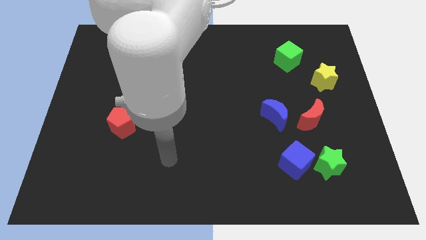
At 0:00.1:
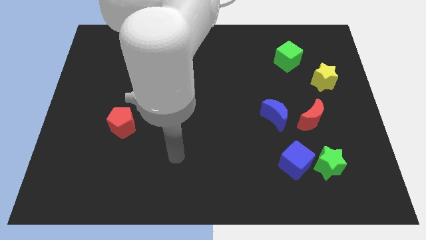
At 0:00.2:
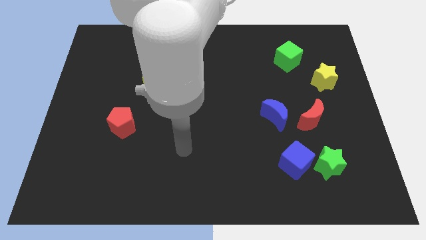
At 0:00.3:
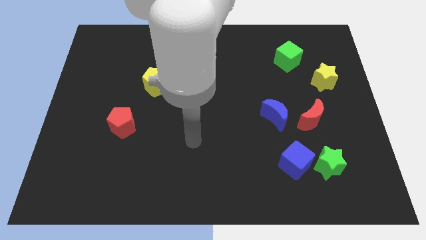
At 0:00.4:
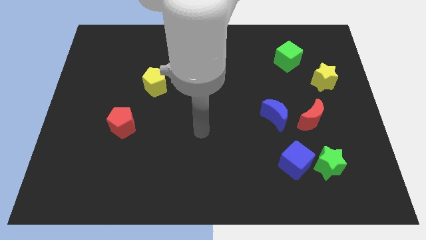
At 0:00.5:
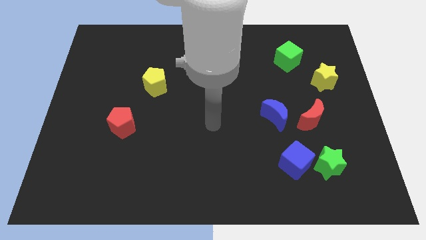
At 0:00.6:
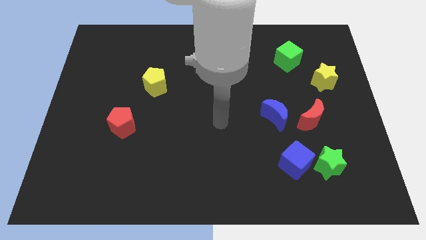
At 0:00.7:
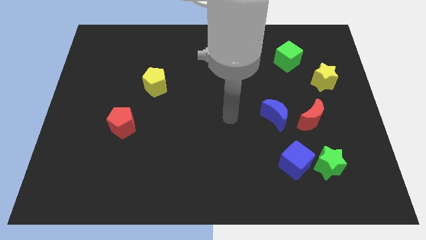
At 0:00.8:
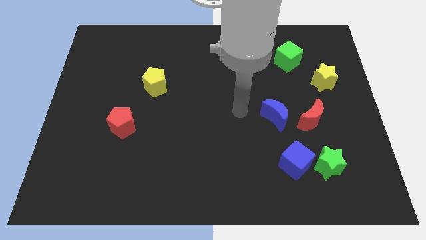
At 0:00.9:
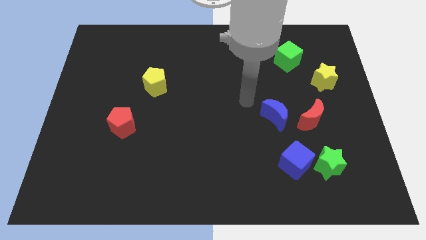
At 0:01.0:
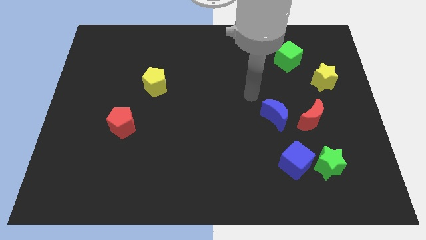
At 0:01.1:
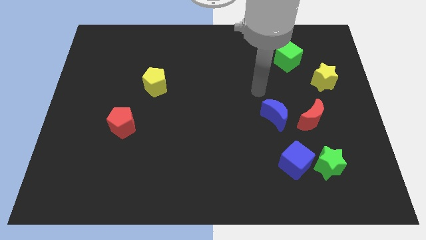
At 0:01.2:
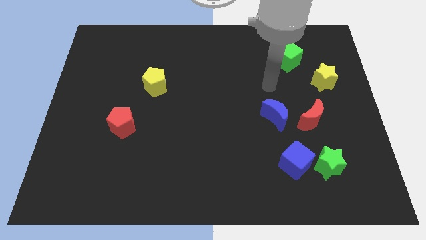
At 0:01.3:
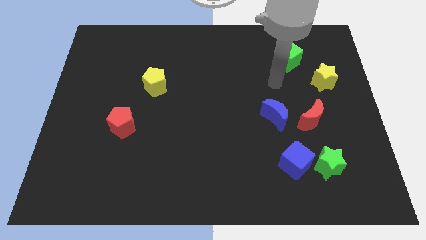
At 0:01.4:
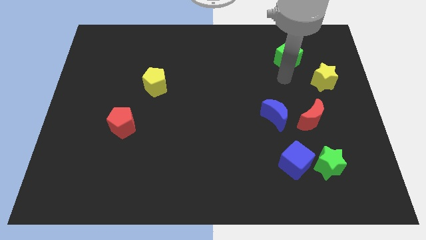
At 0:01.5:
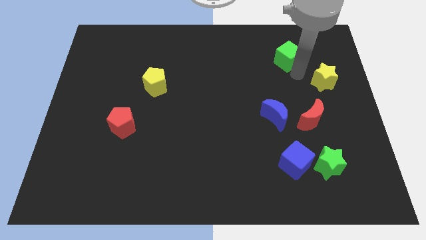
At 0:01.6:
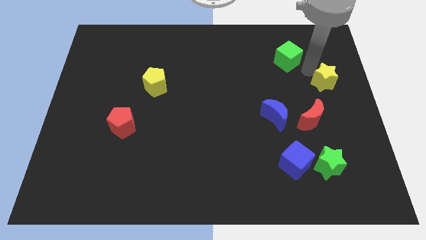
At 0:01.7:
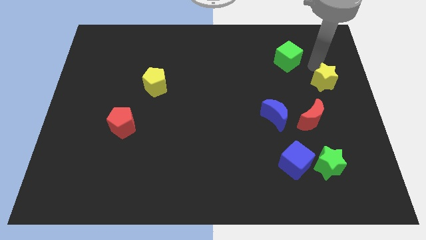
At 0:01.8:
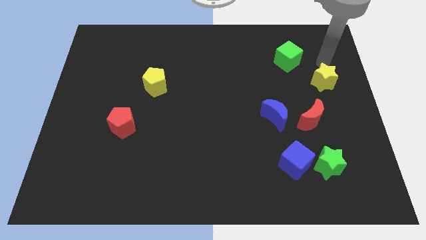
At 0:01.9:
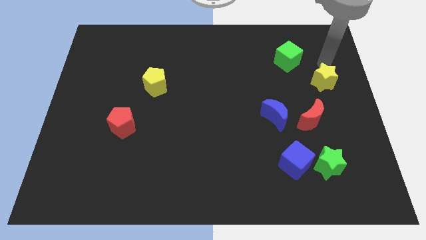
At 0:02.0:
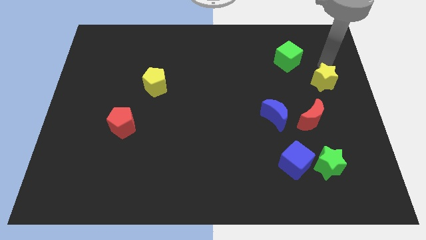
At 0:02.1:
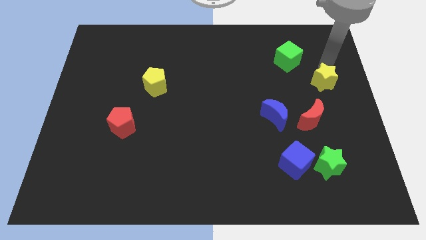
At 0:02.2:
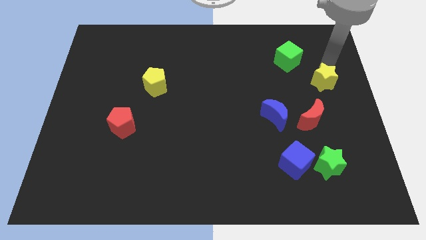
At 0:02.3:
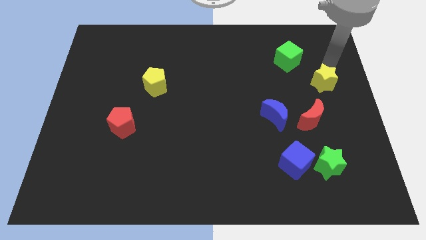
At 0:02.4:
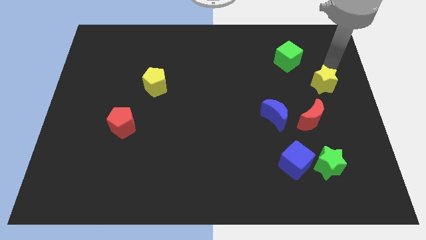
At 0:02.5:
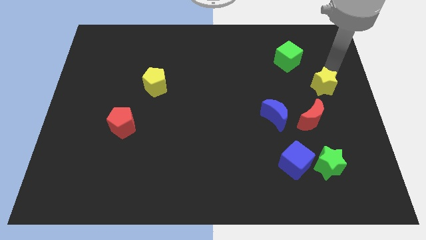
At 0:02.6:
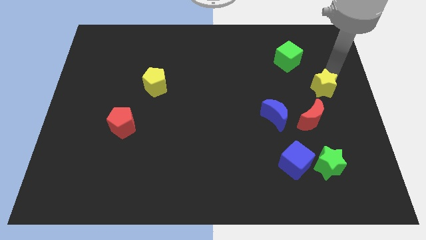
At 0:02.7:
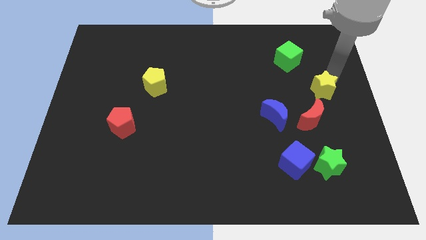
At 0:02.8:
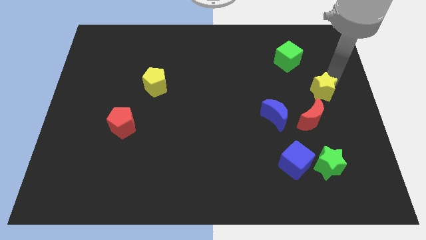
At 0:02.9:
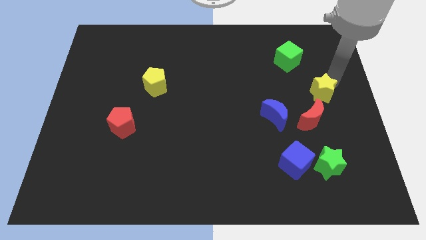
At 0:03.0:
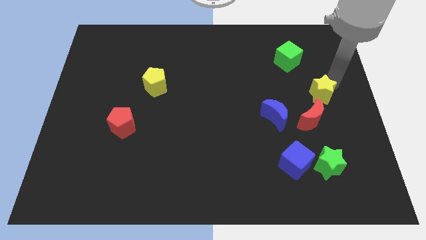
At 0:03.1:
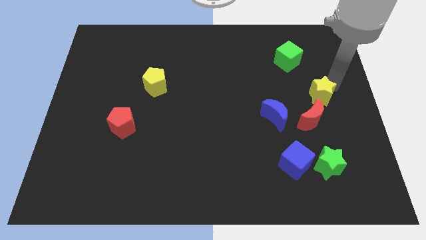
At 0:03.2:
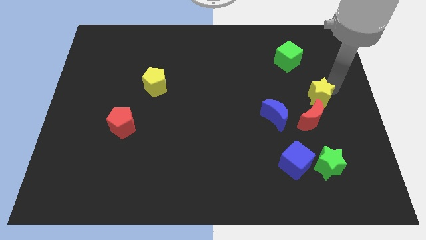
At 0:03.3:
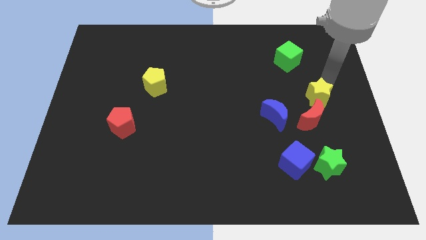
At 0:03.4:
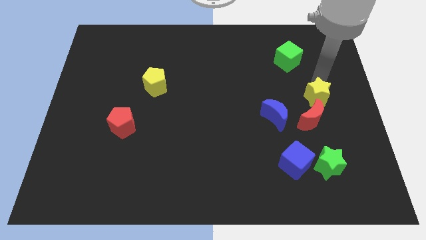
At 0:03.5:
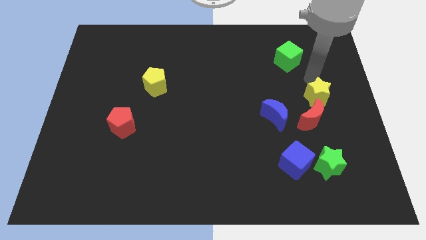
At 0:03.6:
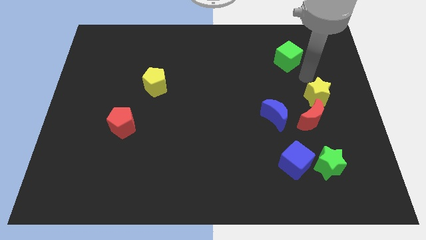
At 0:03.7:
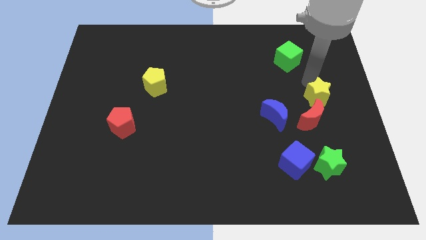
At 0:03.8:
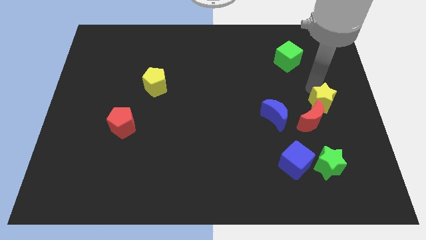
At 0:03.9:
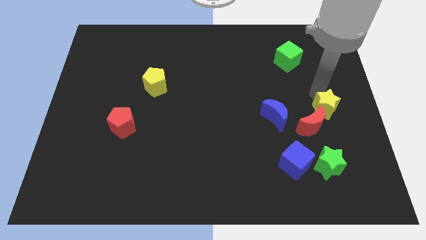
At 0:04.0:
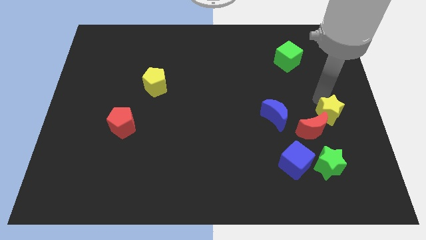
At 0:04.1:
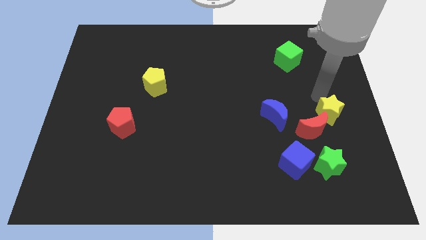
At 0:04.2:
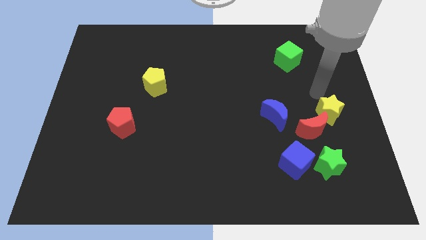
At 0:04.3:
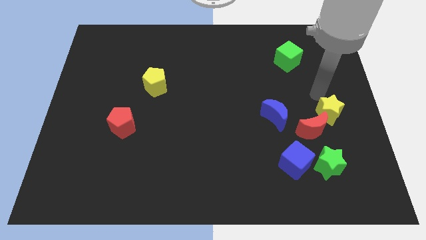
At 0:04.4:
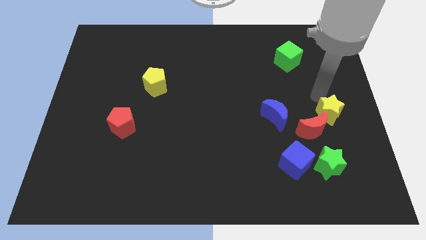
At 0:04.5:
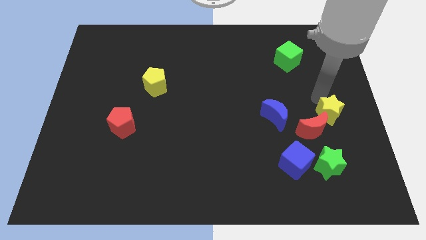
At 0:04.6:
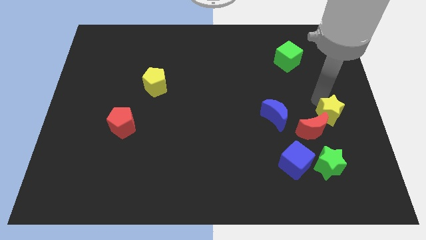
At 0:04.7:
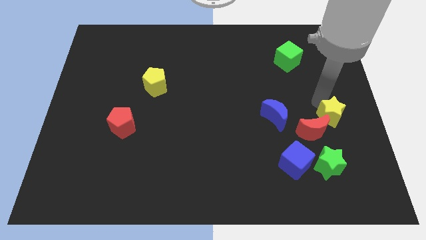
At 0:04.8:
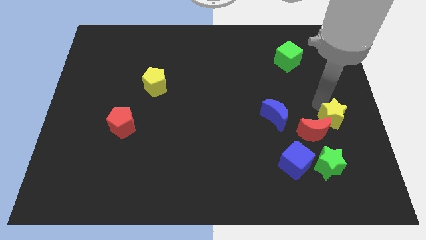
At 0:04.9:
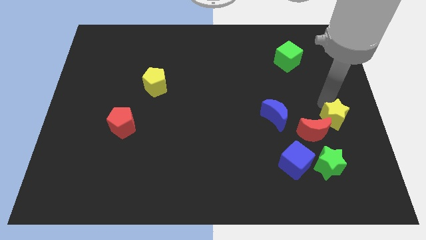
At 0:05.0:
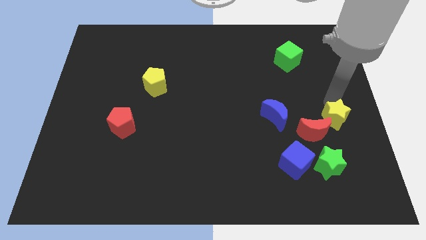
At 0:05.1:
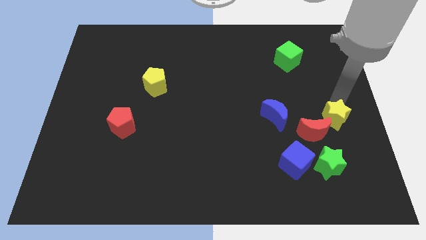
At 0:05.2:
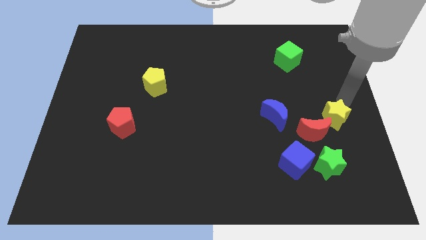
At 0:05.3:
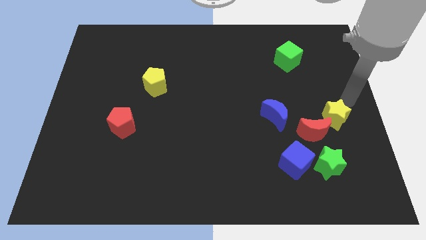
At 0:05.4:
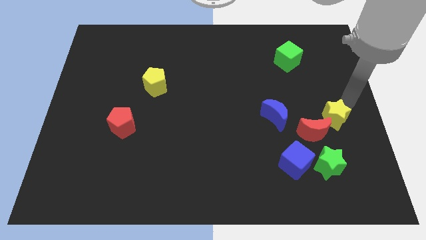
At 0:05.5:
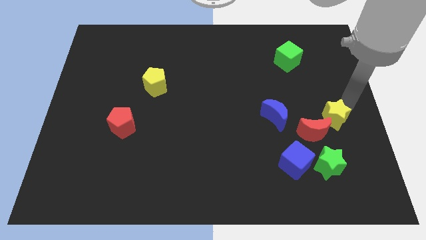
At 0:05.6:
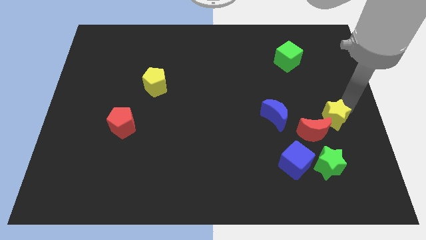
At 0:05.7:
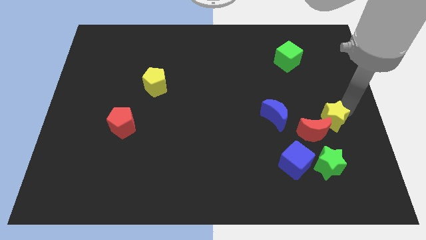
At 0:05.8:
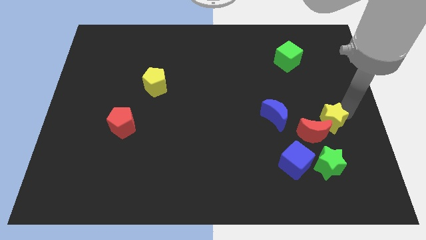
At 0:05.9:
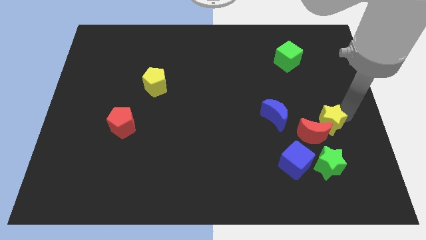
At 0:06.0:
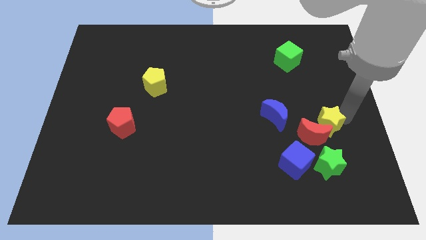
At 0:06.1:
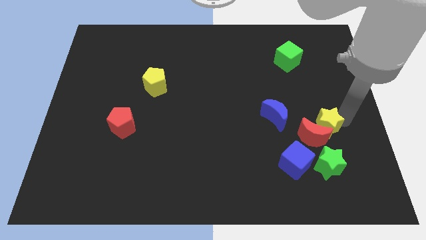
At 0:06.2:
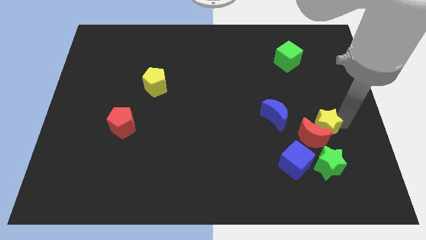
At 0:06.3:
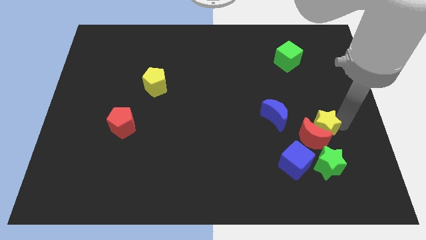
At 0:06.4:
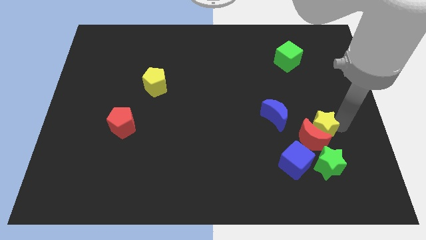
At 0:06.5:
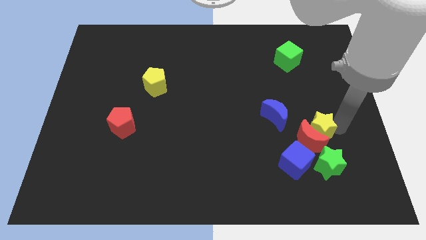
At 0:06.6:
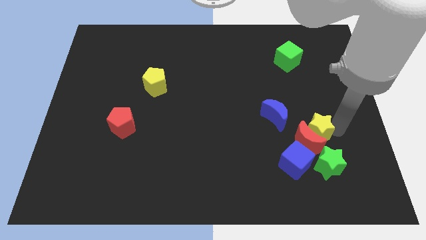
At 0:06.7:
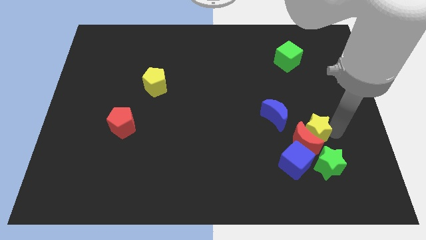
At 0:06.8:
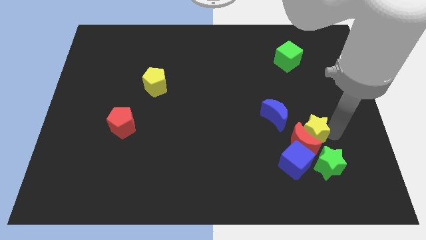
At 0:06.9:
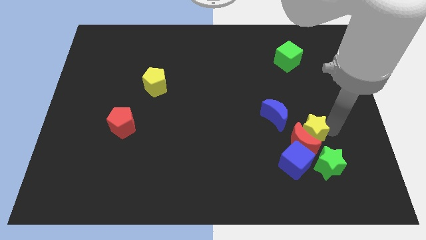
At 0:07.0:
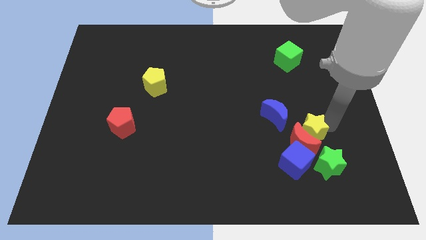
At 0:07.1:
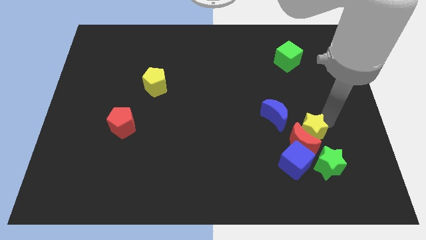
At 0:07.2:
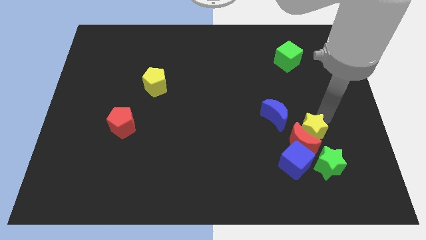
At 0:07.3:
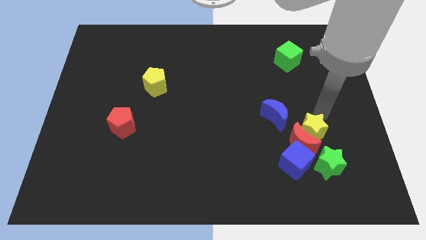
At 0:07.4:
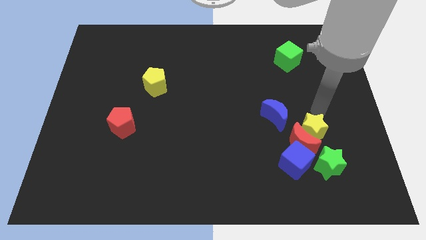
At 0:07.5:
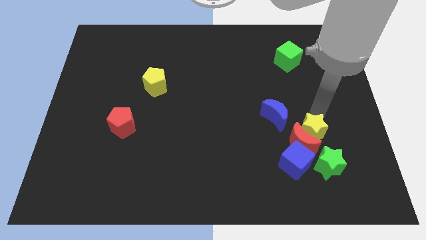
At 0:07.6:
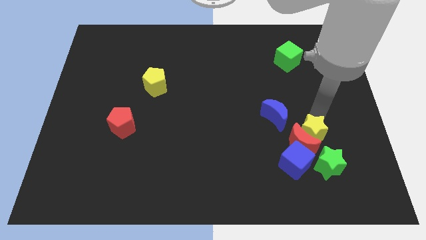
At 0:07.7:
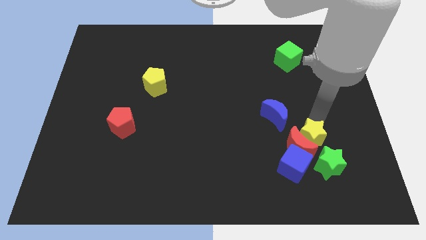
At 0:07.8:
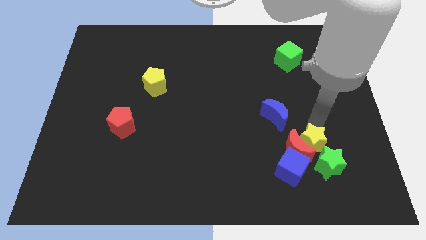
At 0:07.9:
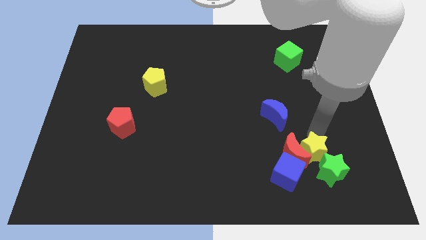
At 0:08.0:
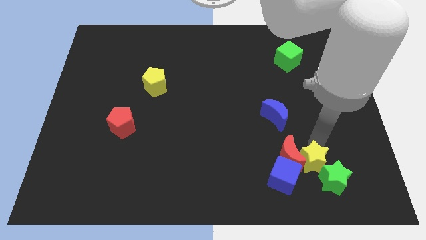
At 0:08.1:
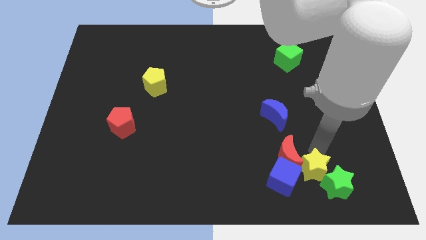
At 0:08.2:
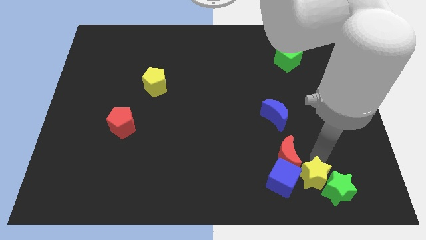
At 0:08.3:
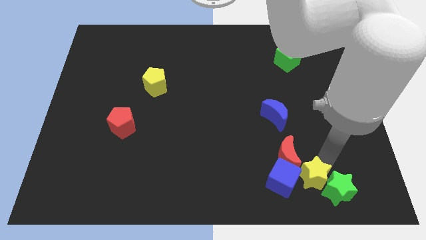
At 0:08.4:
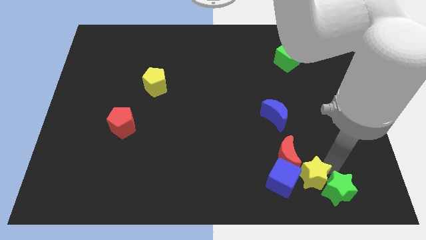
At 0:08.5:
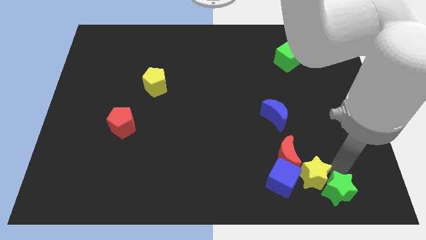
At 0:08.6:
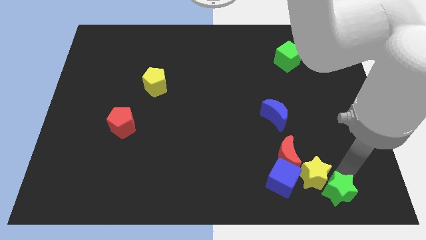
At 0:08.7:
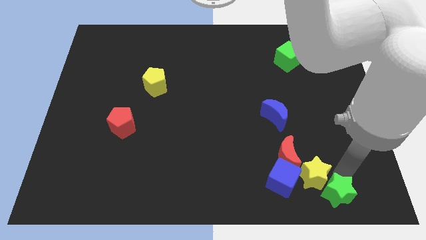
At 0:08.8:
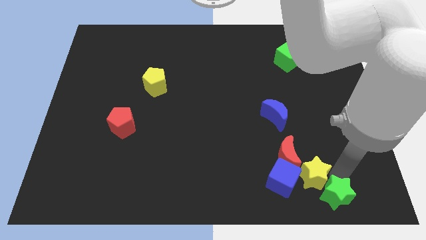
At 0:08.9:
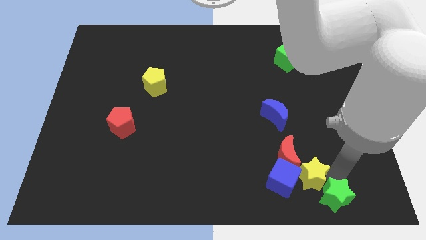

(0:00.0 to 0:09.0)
push the yellow star close to the blue cube
